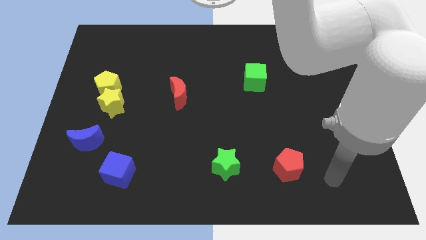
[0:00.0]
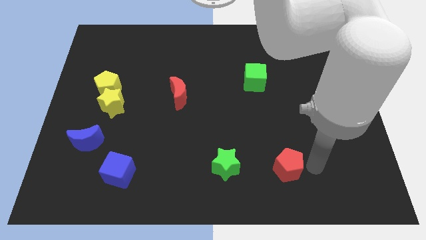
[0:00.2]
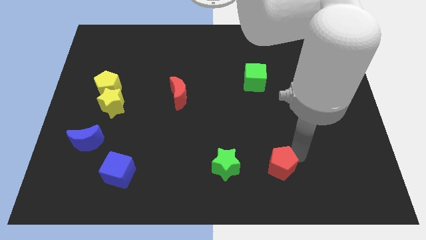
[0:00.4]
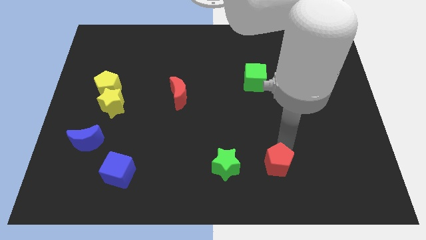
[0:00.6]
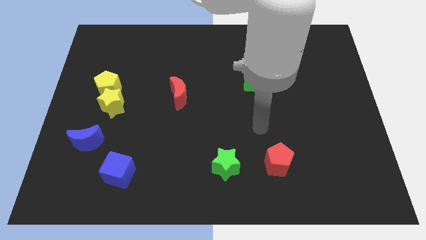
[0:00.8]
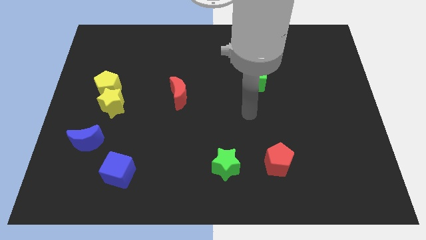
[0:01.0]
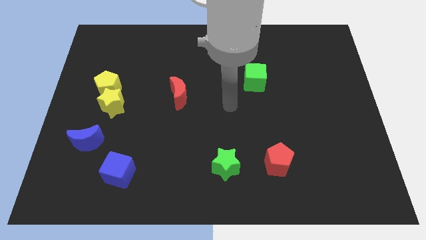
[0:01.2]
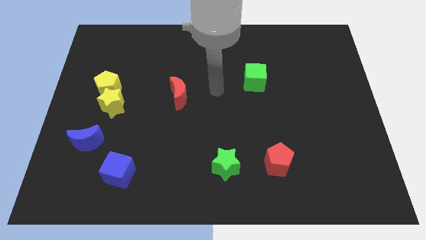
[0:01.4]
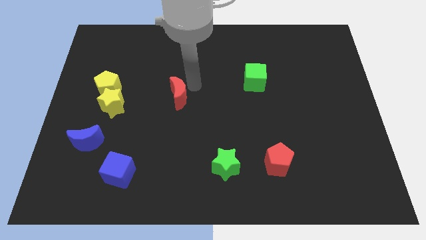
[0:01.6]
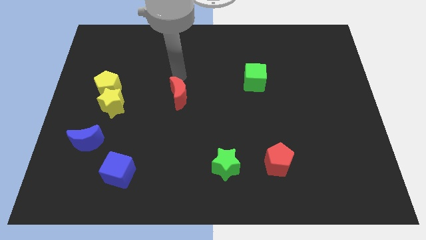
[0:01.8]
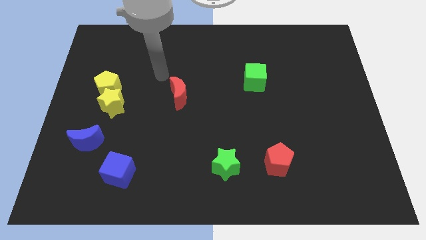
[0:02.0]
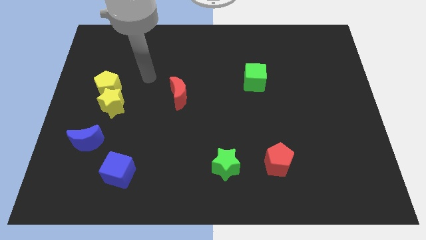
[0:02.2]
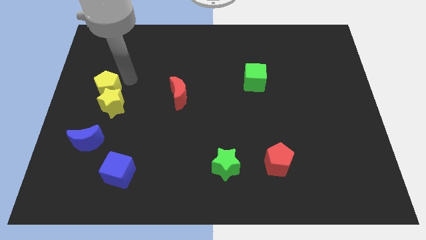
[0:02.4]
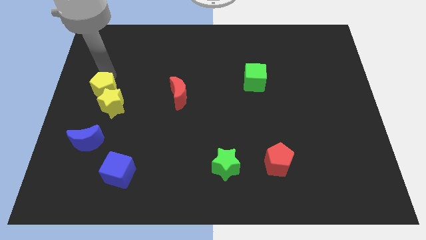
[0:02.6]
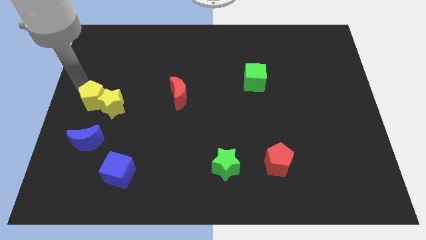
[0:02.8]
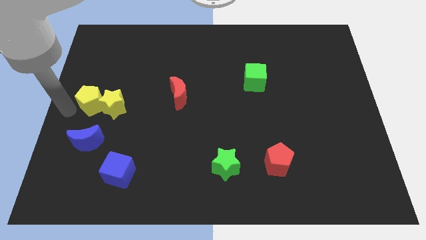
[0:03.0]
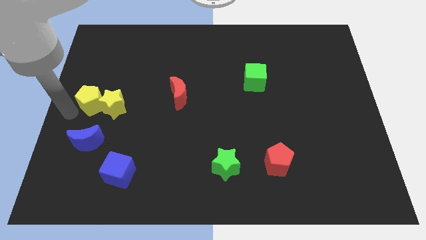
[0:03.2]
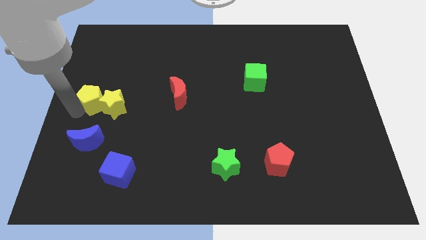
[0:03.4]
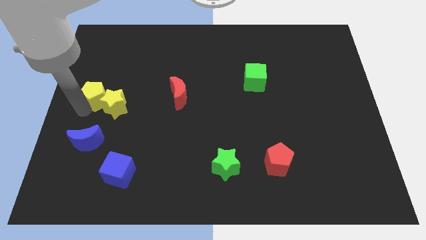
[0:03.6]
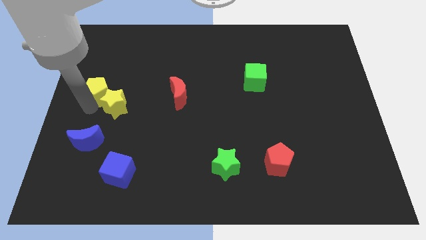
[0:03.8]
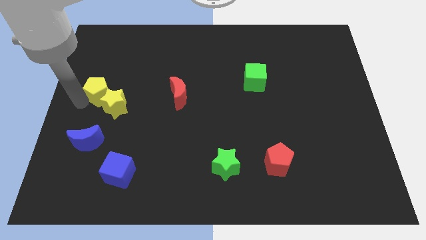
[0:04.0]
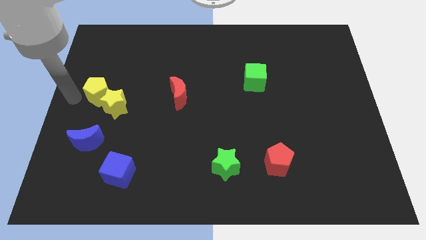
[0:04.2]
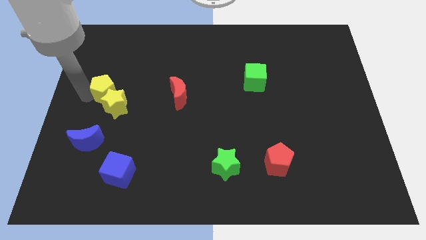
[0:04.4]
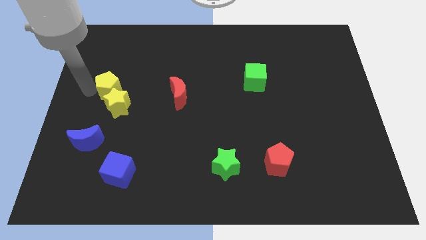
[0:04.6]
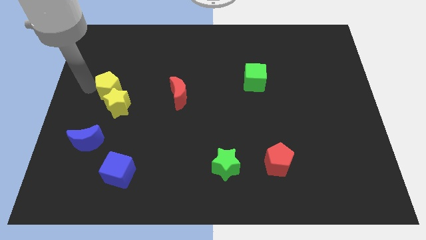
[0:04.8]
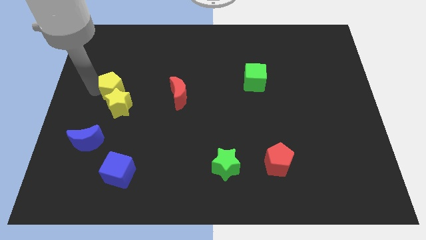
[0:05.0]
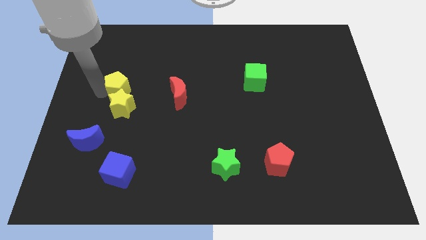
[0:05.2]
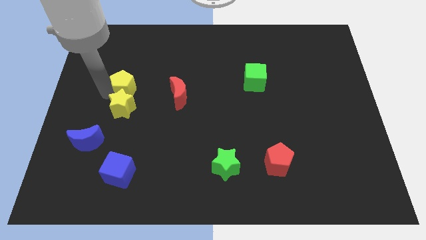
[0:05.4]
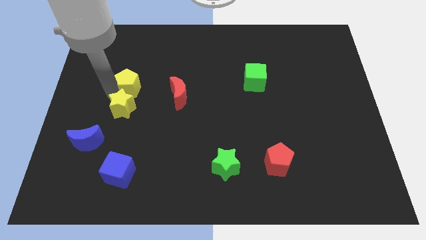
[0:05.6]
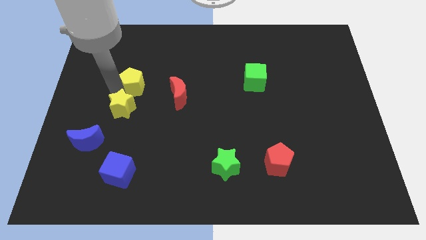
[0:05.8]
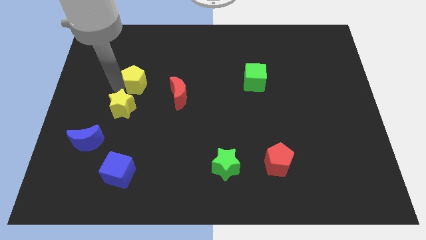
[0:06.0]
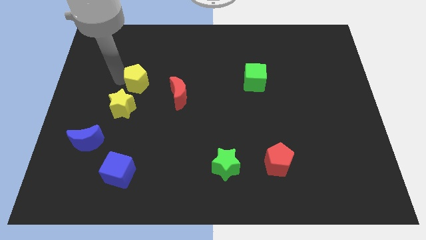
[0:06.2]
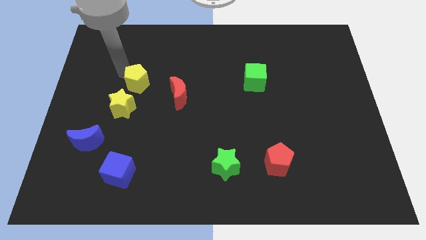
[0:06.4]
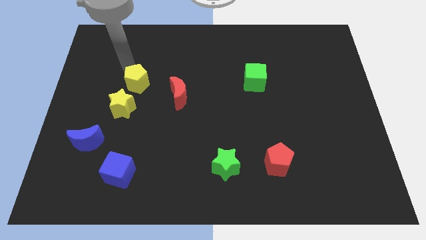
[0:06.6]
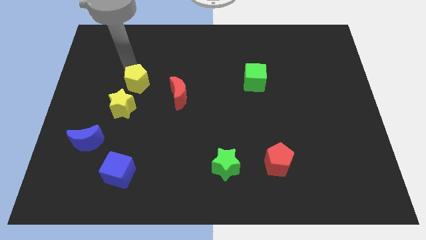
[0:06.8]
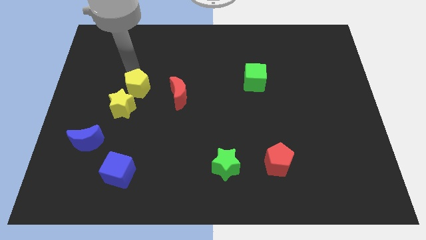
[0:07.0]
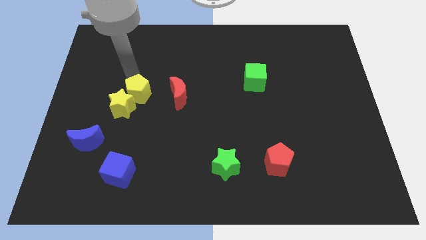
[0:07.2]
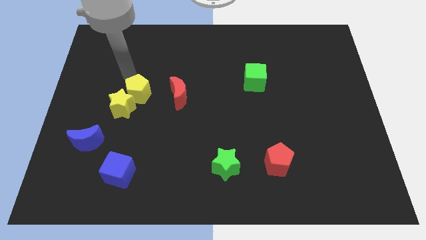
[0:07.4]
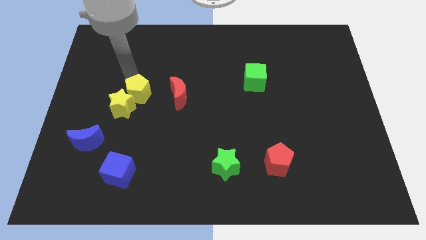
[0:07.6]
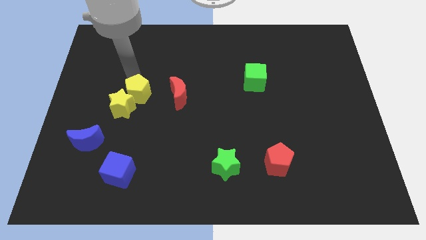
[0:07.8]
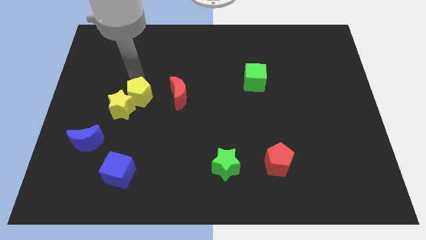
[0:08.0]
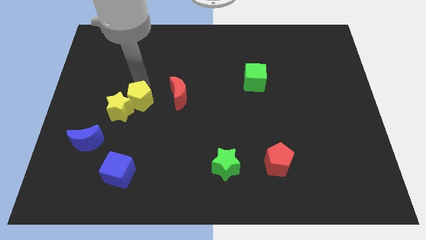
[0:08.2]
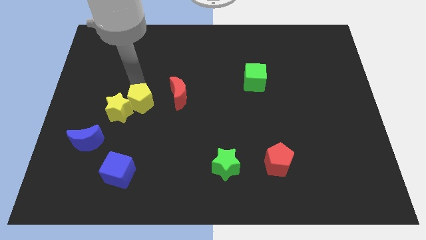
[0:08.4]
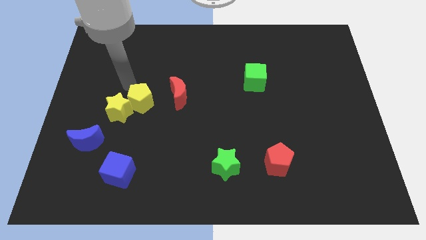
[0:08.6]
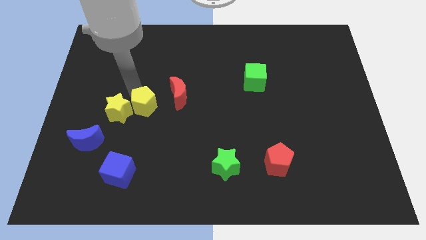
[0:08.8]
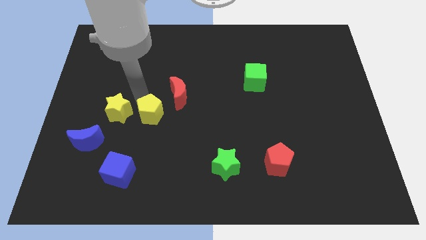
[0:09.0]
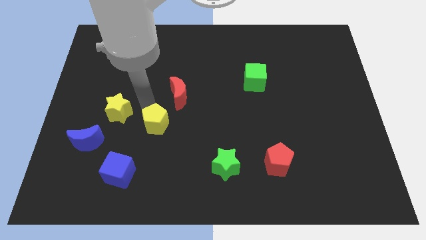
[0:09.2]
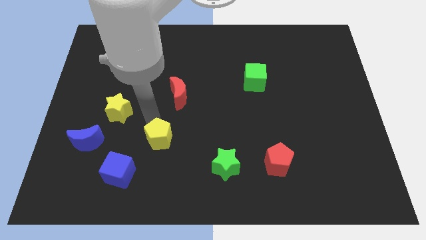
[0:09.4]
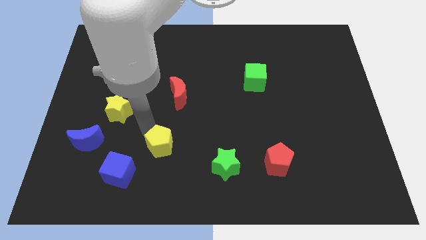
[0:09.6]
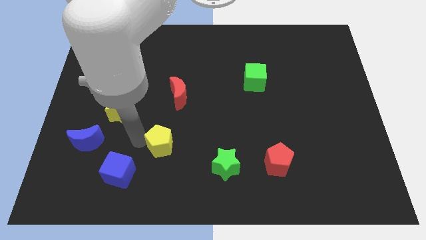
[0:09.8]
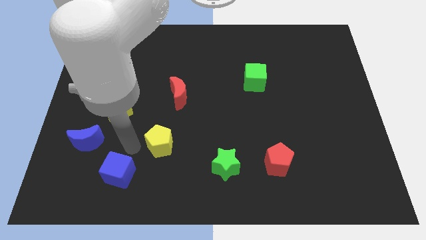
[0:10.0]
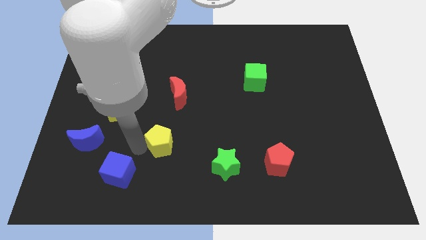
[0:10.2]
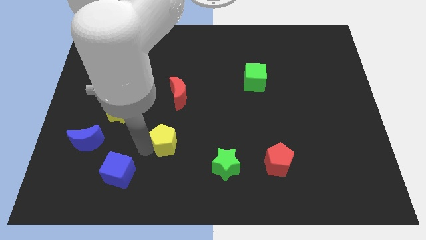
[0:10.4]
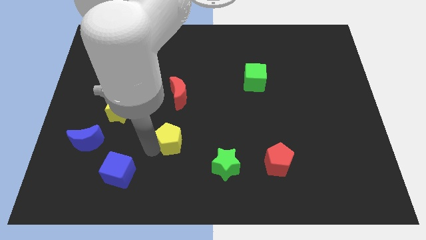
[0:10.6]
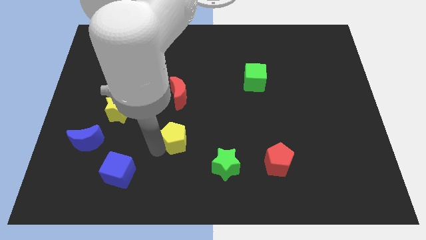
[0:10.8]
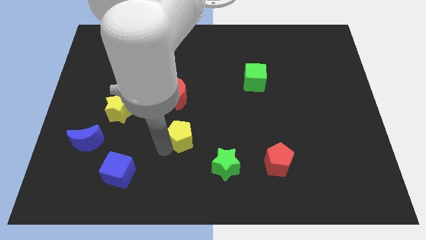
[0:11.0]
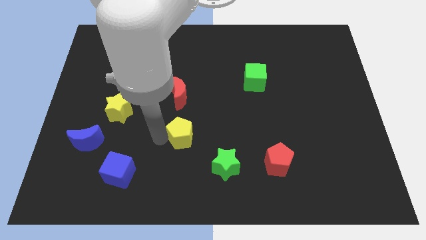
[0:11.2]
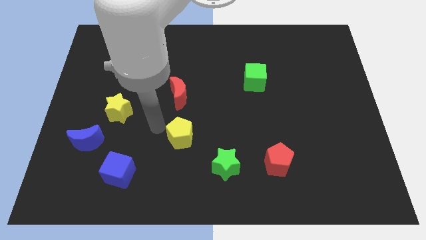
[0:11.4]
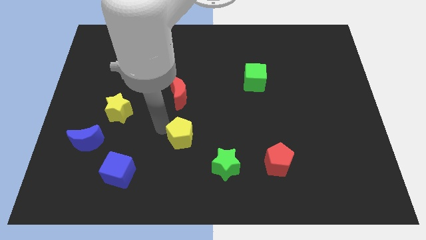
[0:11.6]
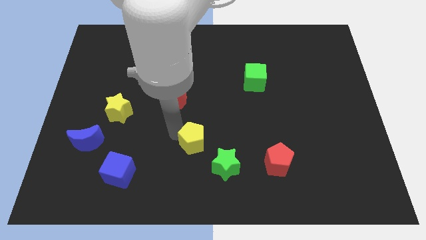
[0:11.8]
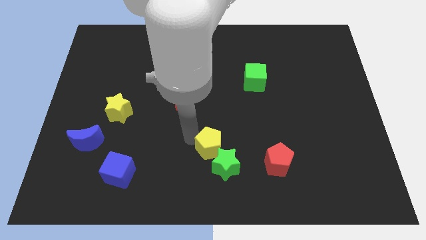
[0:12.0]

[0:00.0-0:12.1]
put the yellow pentagon to the green star

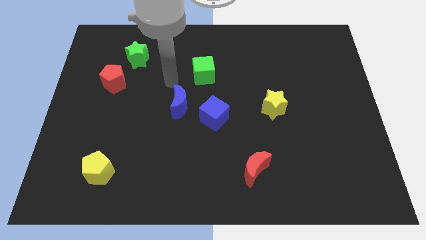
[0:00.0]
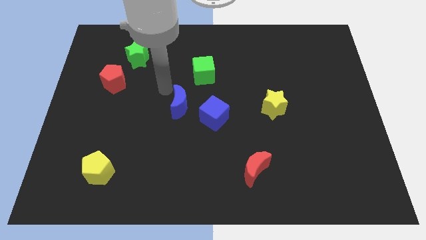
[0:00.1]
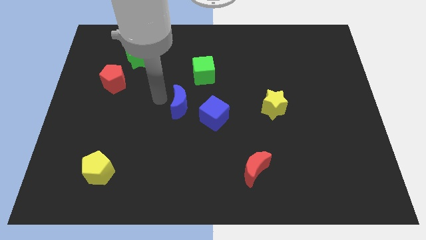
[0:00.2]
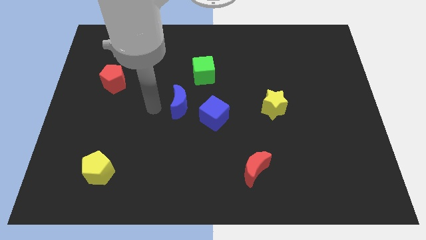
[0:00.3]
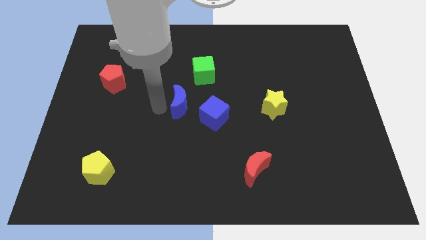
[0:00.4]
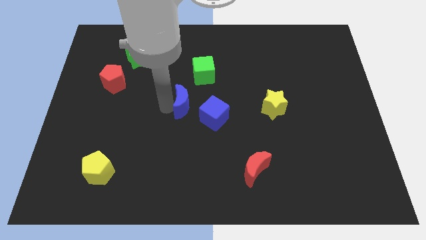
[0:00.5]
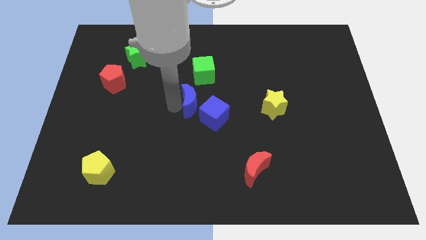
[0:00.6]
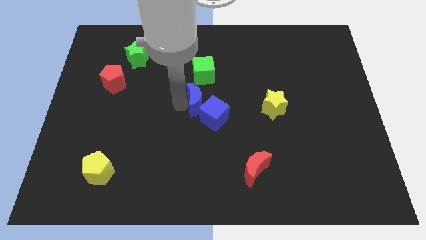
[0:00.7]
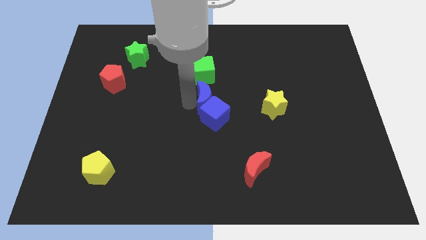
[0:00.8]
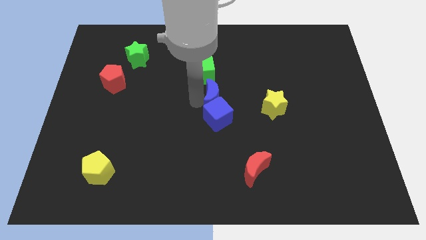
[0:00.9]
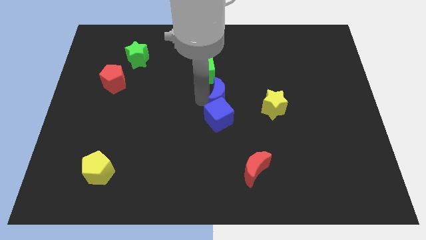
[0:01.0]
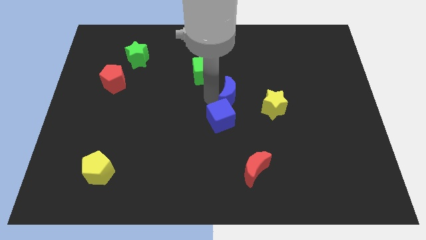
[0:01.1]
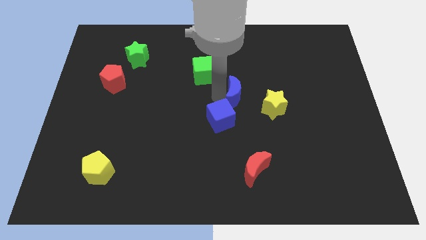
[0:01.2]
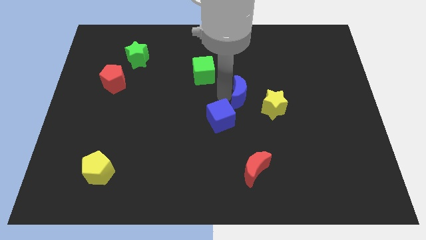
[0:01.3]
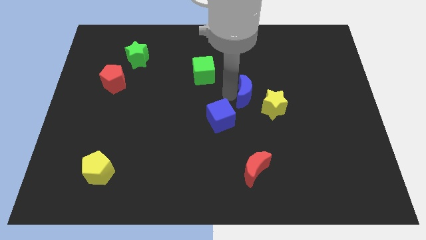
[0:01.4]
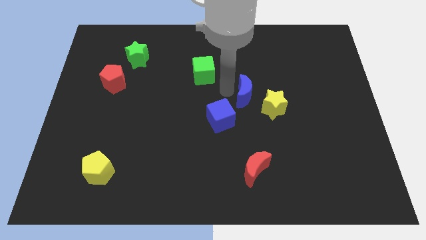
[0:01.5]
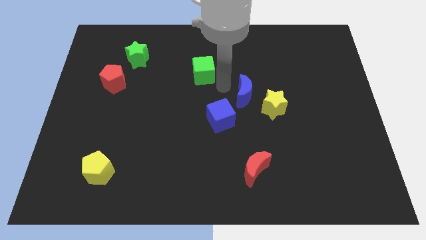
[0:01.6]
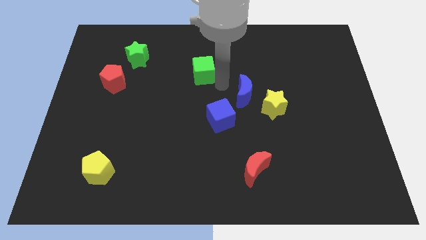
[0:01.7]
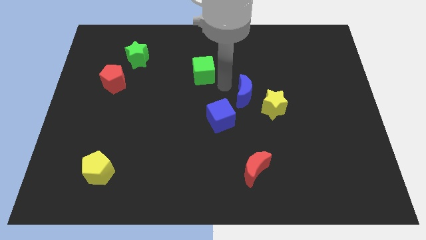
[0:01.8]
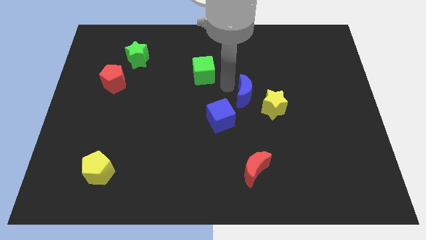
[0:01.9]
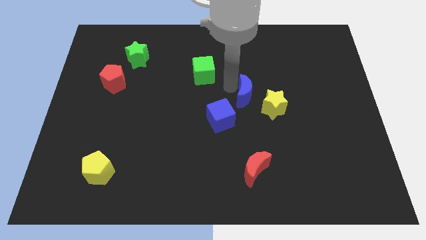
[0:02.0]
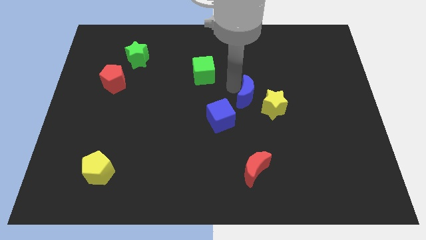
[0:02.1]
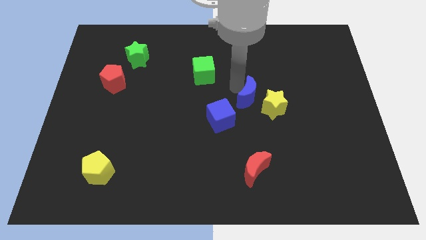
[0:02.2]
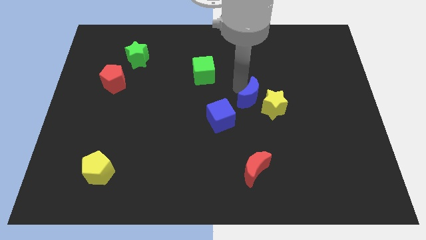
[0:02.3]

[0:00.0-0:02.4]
push the blue moon next to the yellow star
